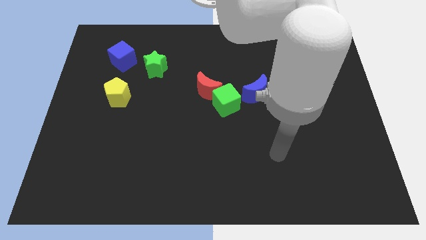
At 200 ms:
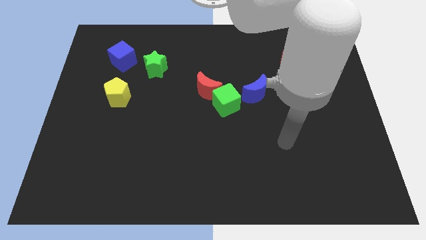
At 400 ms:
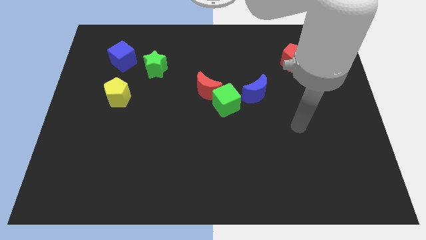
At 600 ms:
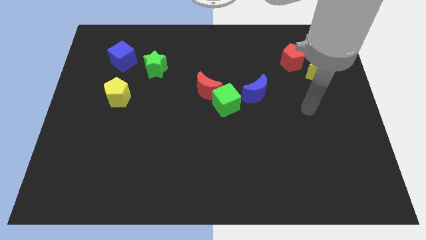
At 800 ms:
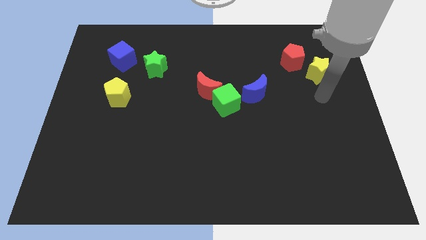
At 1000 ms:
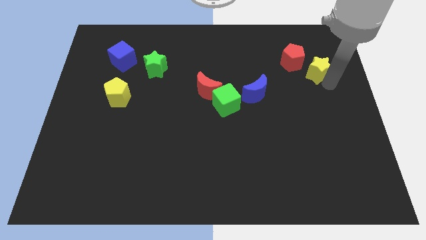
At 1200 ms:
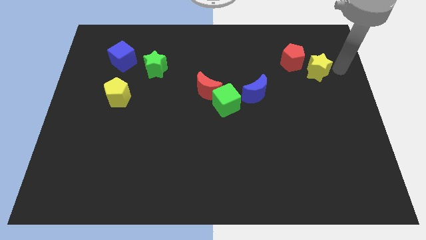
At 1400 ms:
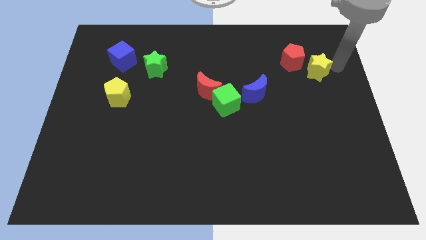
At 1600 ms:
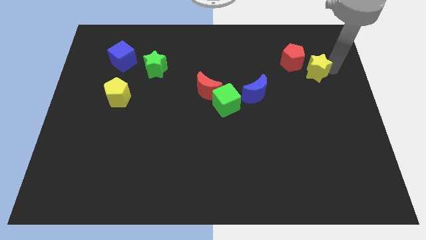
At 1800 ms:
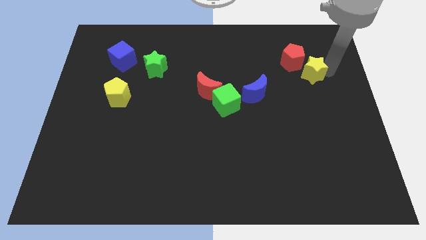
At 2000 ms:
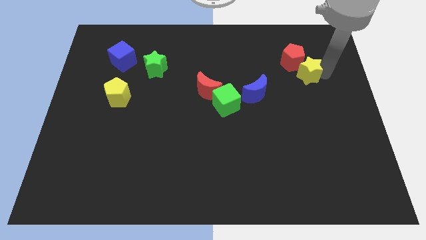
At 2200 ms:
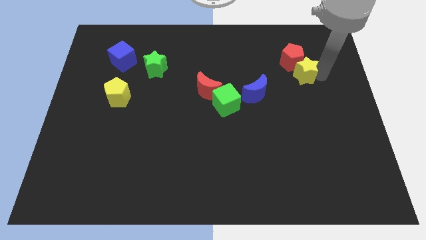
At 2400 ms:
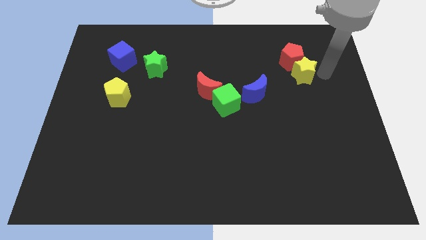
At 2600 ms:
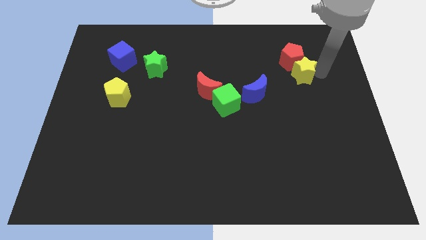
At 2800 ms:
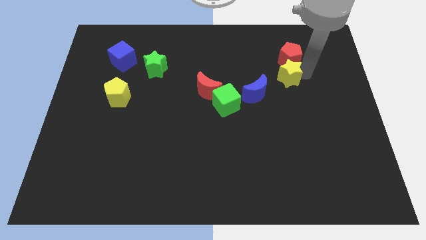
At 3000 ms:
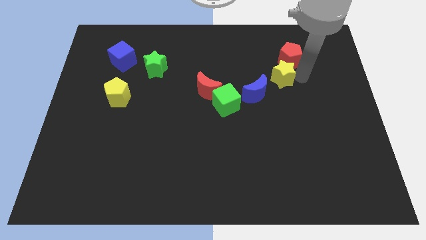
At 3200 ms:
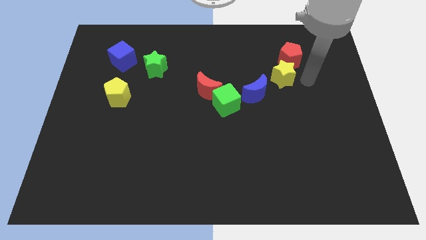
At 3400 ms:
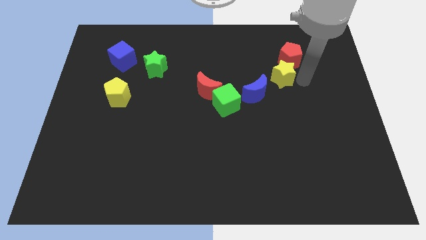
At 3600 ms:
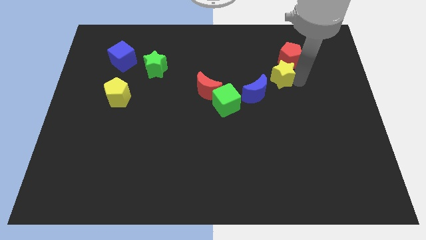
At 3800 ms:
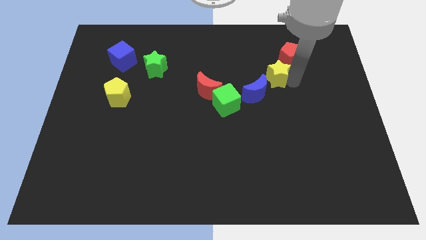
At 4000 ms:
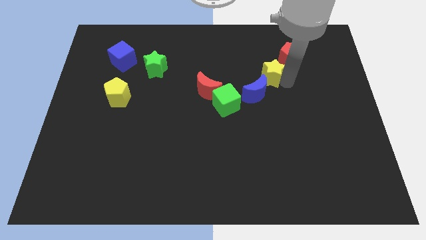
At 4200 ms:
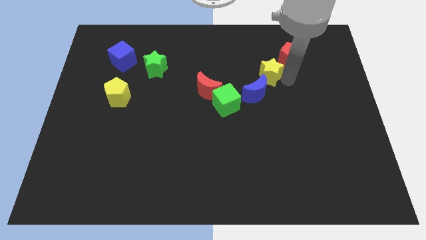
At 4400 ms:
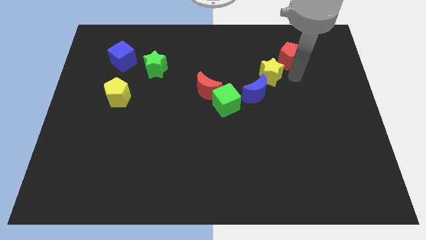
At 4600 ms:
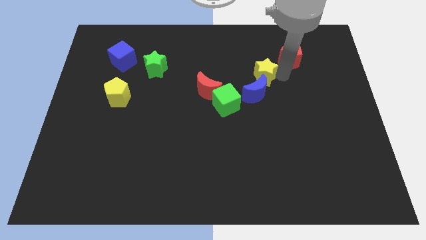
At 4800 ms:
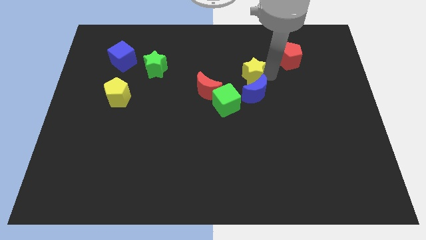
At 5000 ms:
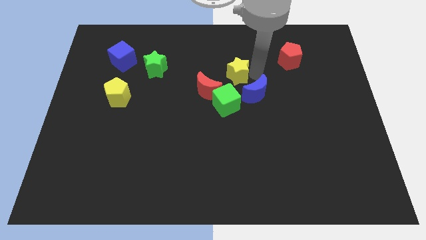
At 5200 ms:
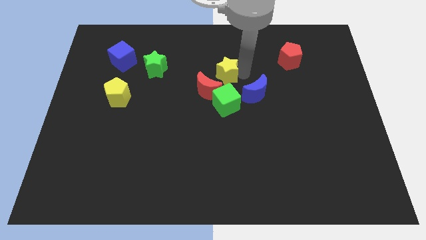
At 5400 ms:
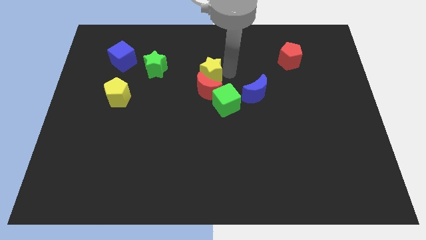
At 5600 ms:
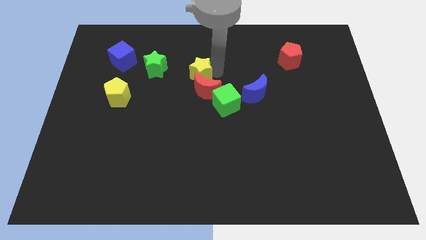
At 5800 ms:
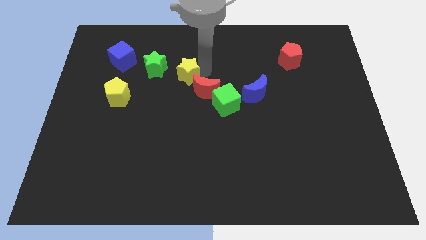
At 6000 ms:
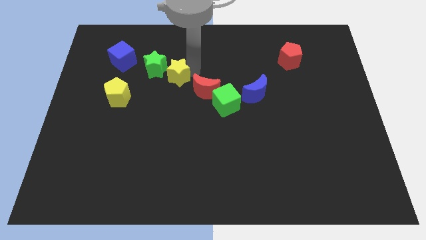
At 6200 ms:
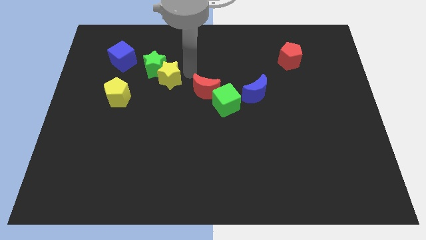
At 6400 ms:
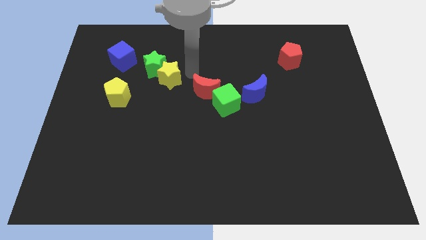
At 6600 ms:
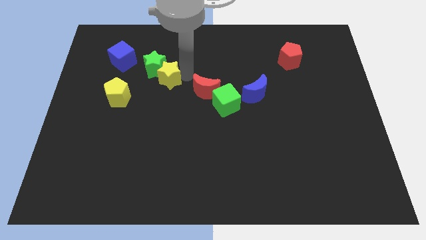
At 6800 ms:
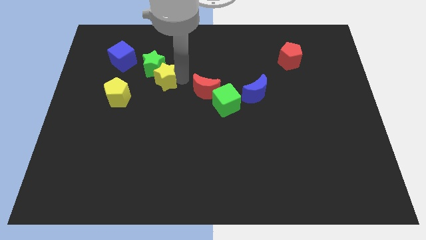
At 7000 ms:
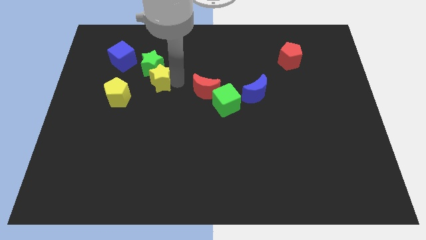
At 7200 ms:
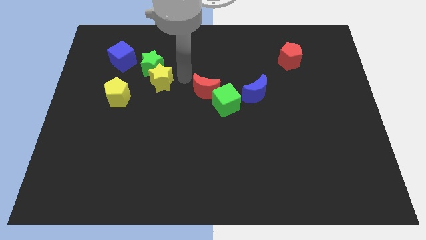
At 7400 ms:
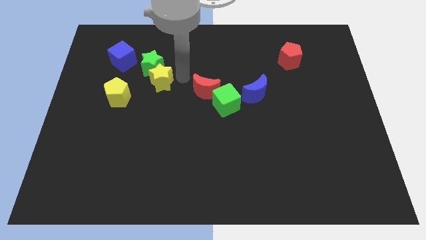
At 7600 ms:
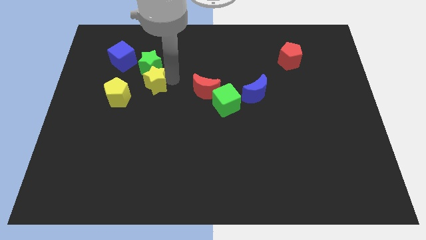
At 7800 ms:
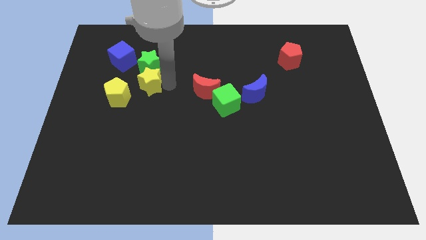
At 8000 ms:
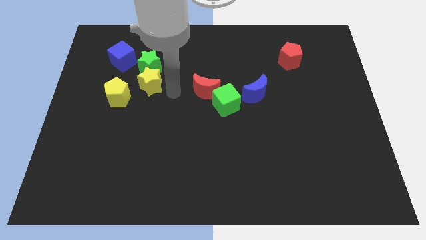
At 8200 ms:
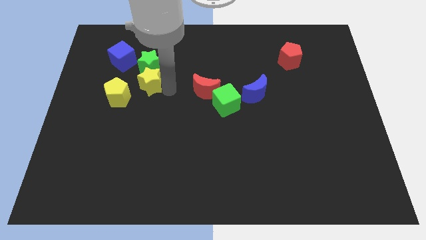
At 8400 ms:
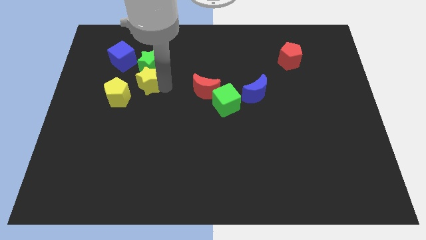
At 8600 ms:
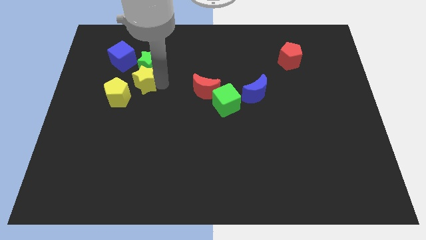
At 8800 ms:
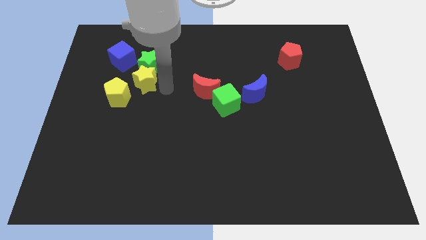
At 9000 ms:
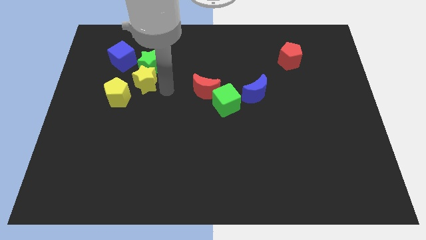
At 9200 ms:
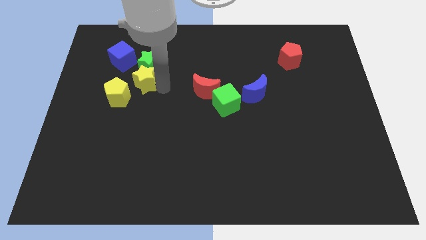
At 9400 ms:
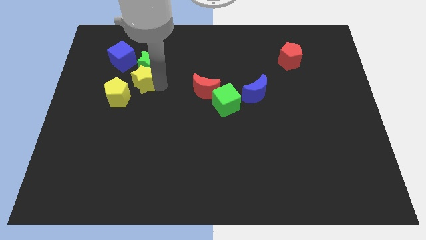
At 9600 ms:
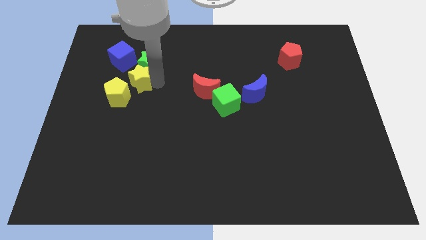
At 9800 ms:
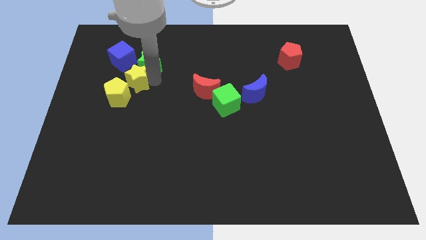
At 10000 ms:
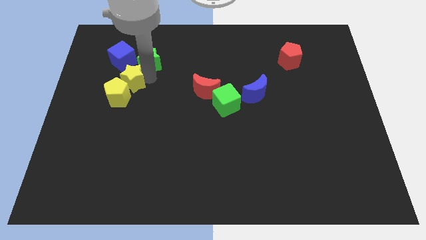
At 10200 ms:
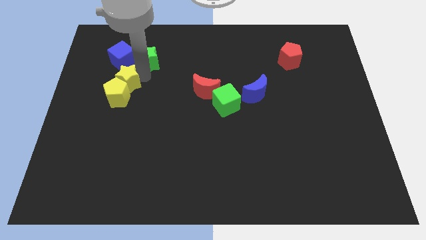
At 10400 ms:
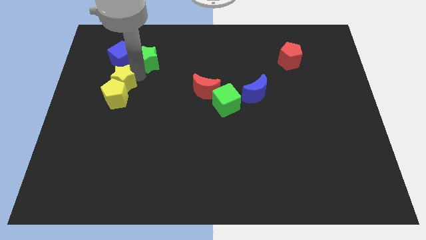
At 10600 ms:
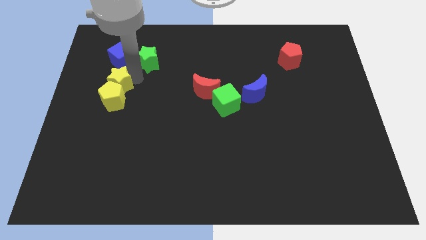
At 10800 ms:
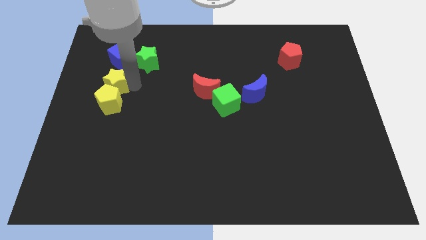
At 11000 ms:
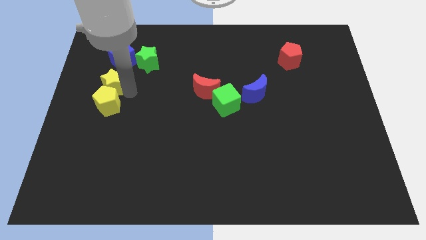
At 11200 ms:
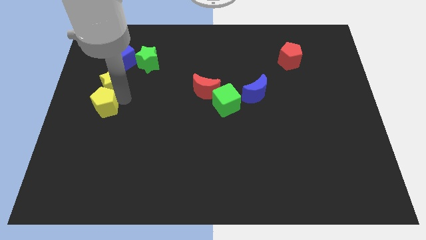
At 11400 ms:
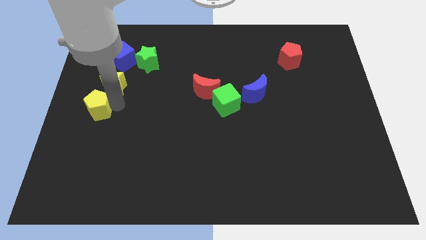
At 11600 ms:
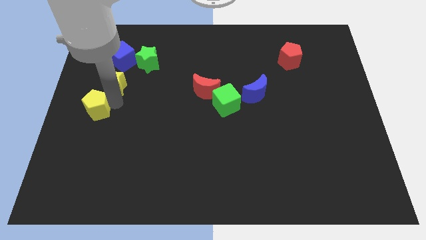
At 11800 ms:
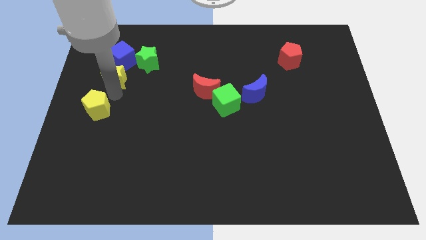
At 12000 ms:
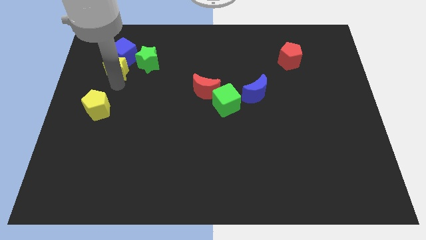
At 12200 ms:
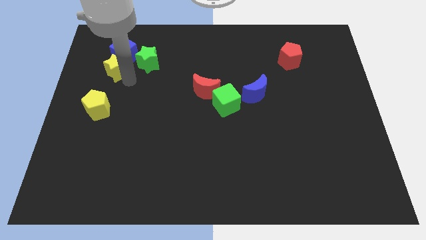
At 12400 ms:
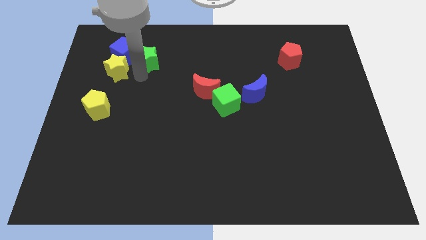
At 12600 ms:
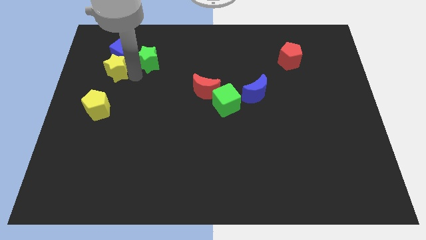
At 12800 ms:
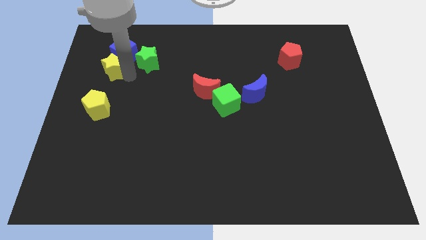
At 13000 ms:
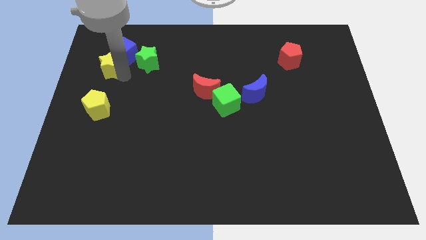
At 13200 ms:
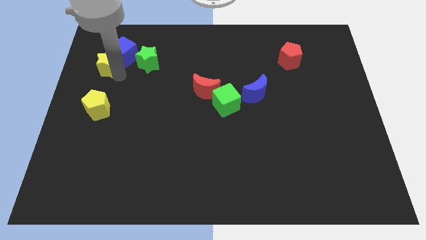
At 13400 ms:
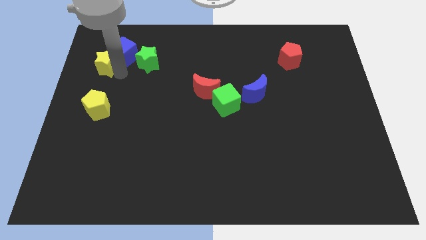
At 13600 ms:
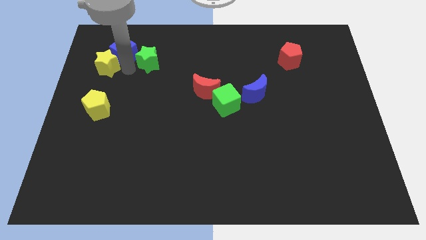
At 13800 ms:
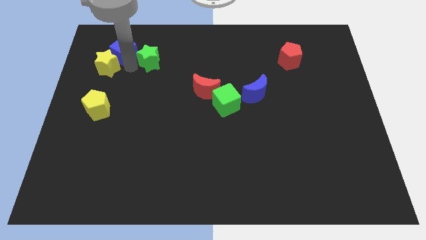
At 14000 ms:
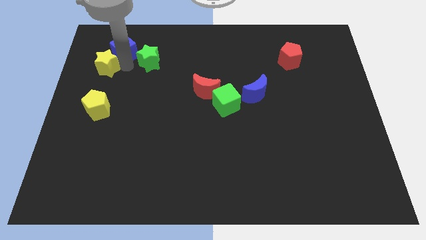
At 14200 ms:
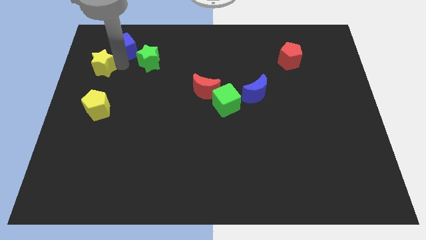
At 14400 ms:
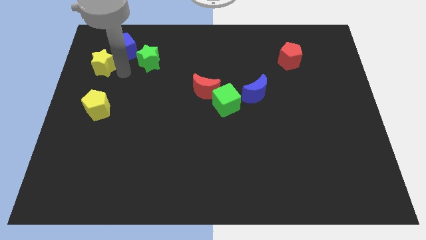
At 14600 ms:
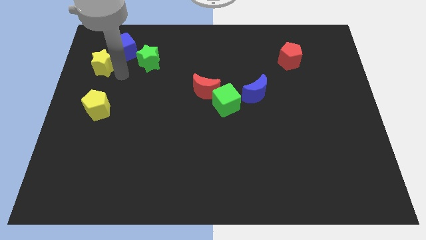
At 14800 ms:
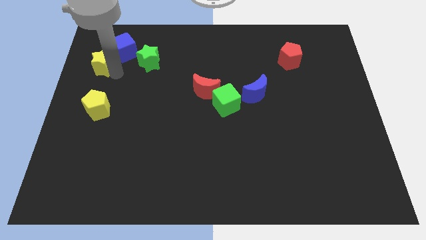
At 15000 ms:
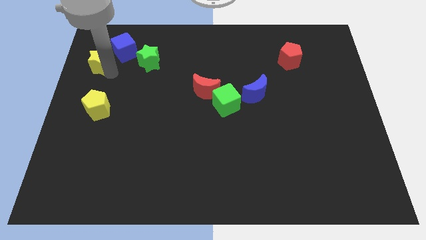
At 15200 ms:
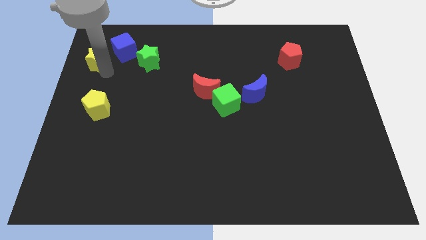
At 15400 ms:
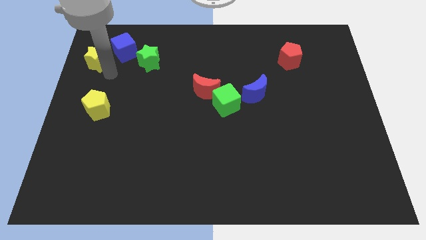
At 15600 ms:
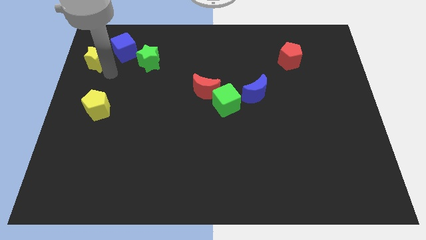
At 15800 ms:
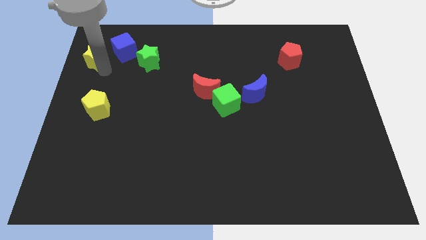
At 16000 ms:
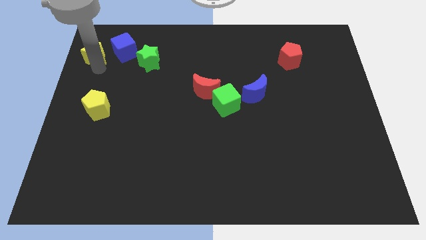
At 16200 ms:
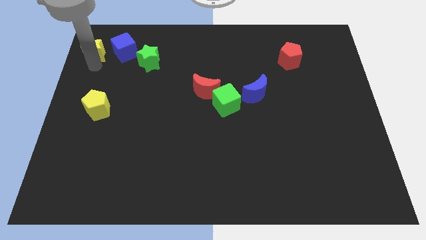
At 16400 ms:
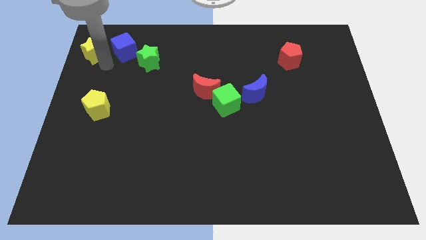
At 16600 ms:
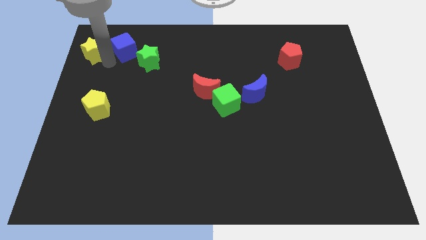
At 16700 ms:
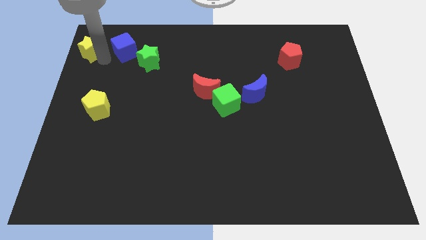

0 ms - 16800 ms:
push the yellow star to the upper left corner
